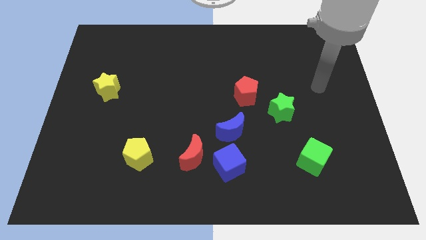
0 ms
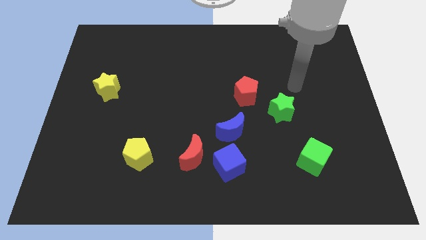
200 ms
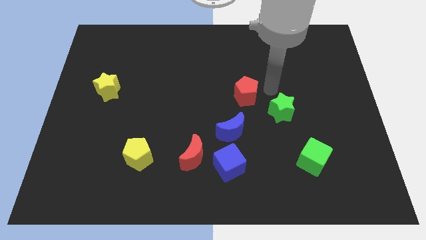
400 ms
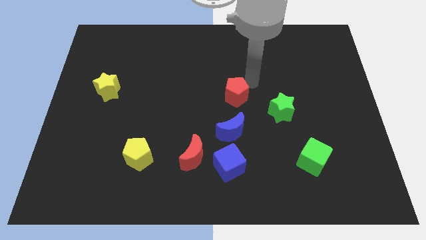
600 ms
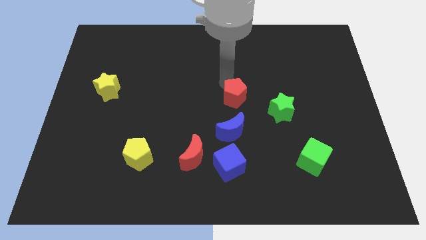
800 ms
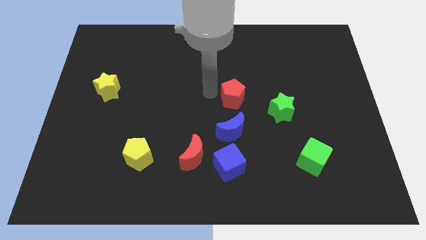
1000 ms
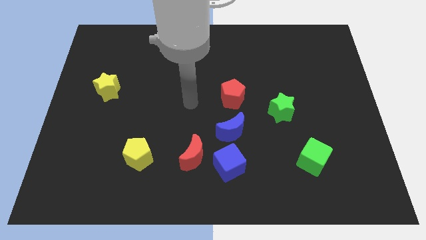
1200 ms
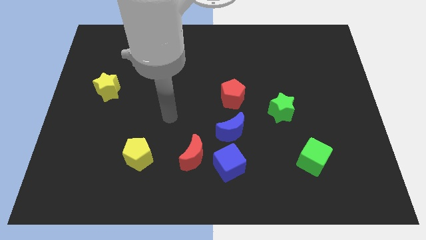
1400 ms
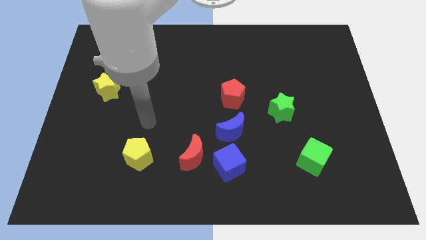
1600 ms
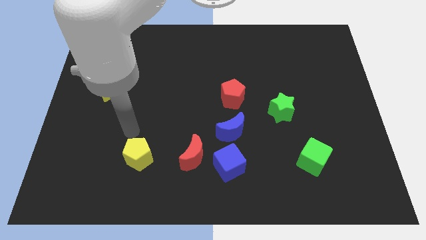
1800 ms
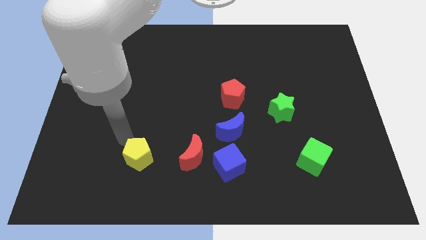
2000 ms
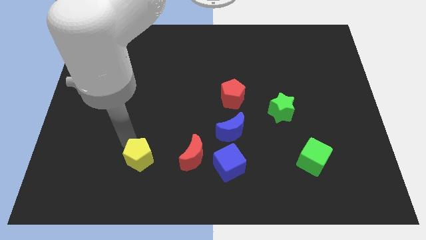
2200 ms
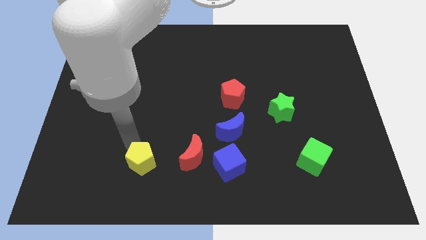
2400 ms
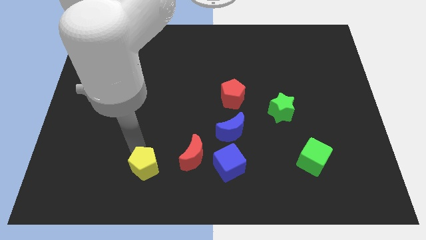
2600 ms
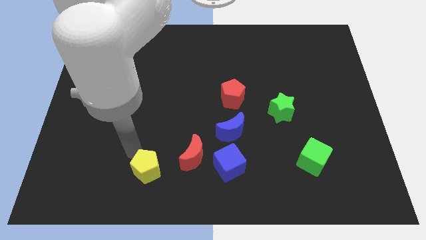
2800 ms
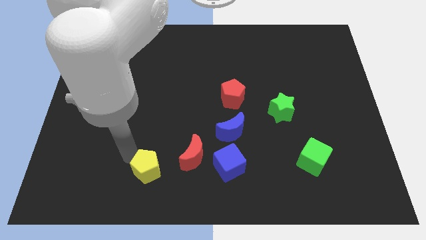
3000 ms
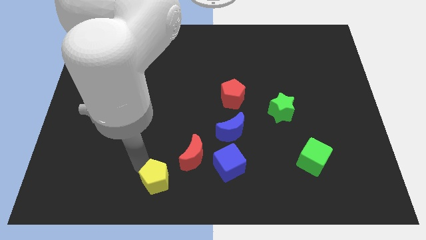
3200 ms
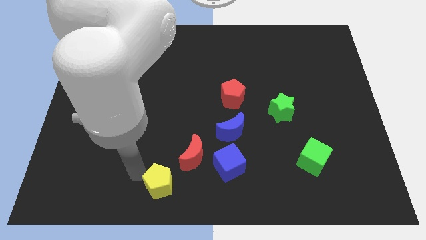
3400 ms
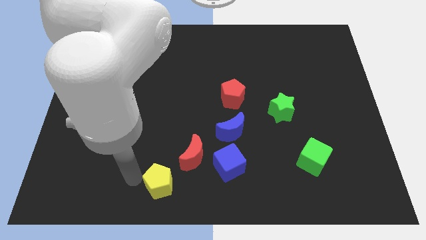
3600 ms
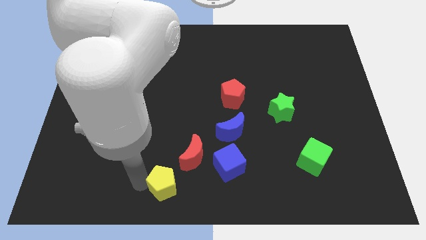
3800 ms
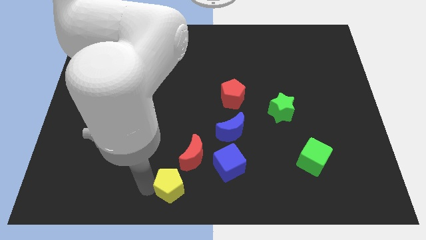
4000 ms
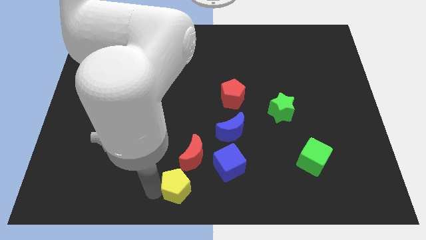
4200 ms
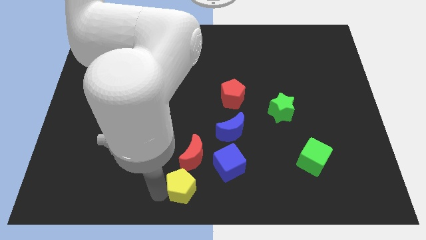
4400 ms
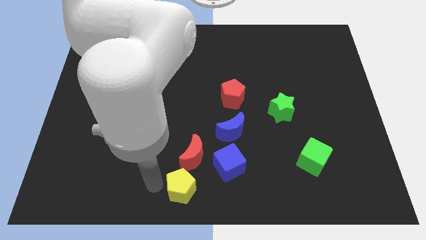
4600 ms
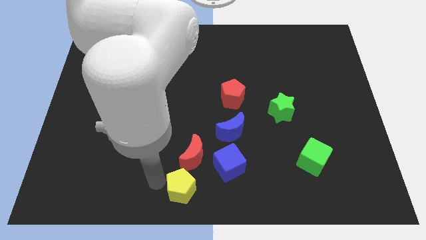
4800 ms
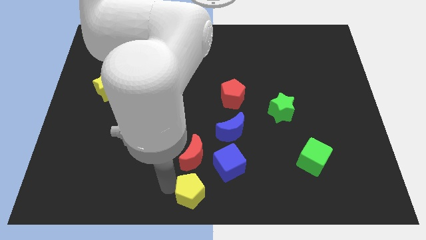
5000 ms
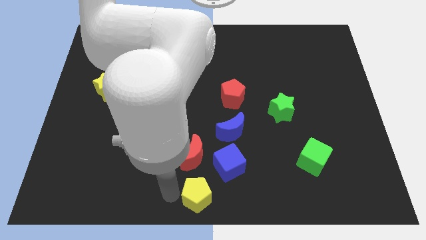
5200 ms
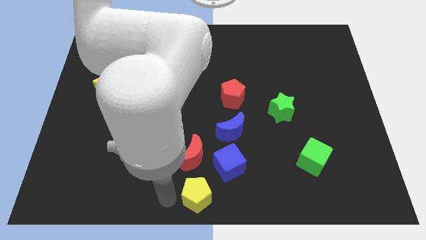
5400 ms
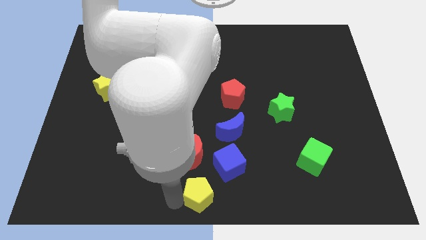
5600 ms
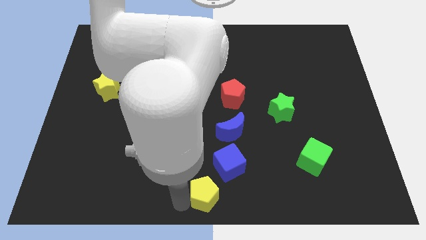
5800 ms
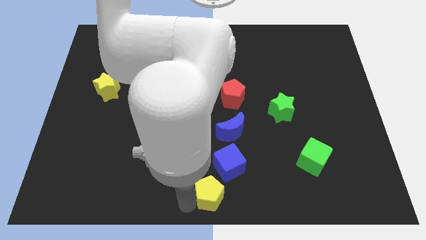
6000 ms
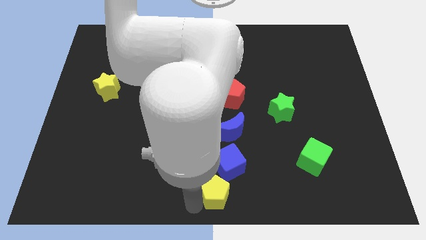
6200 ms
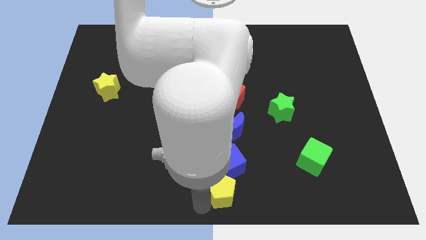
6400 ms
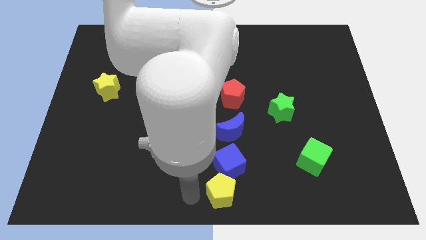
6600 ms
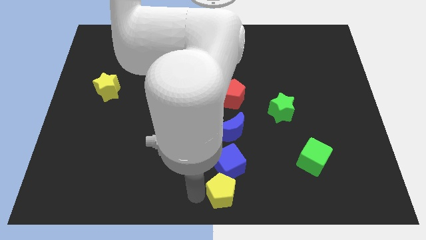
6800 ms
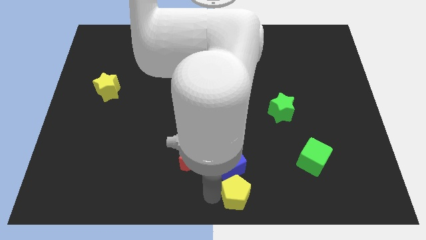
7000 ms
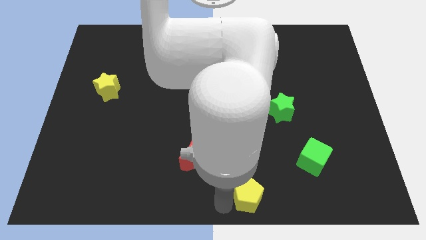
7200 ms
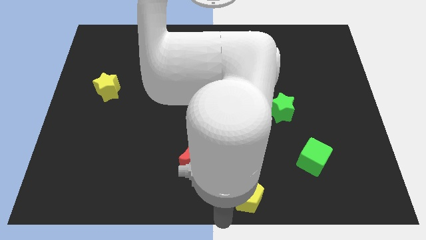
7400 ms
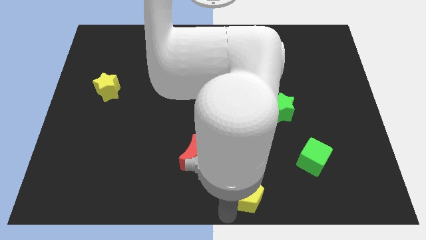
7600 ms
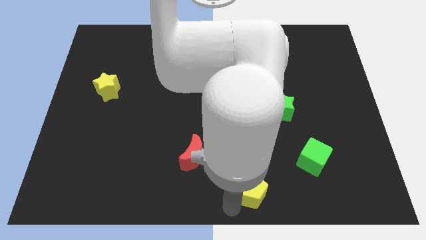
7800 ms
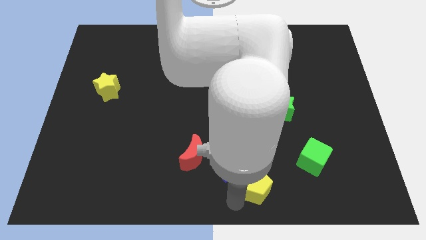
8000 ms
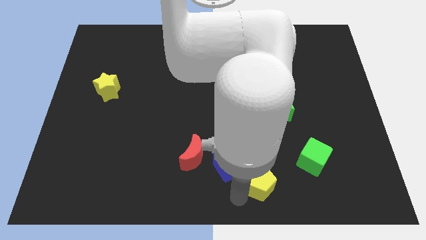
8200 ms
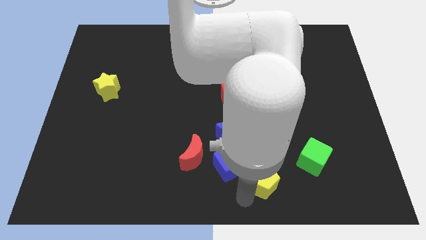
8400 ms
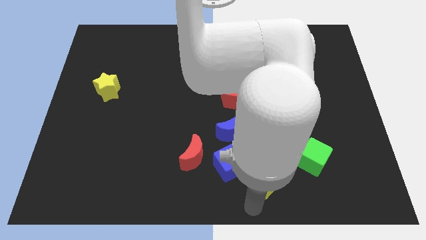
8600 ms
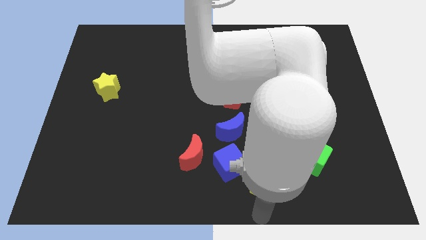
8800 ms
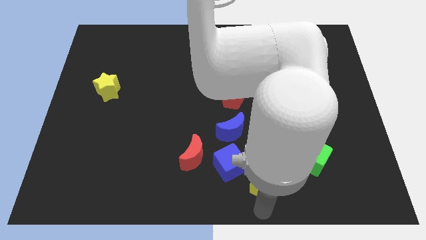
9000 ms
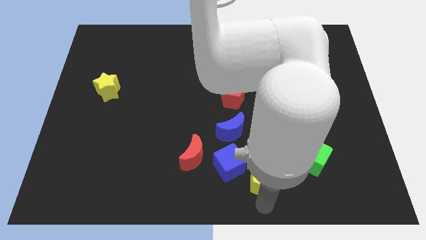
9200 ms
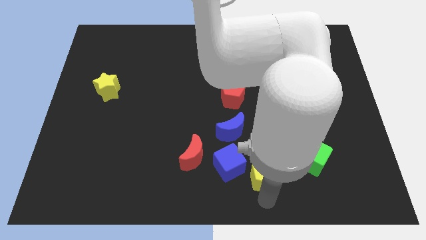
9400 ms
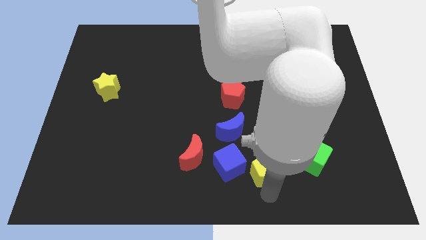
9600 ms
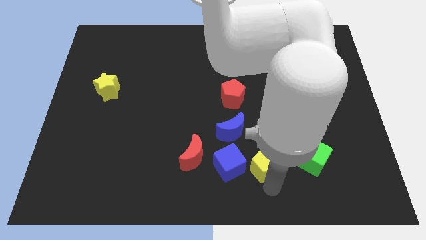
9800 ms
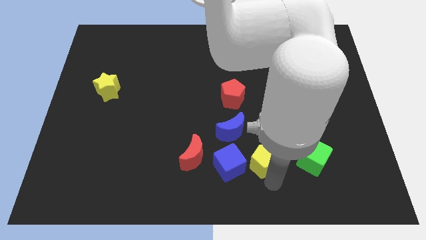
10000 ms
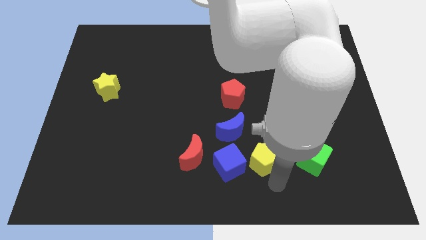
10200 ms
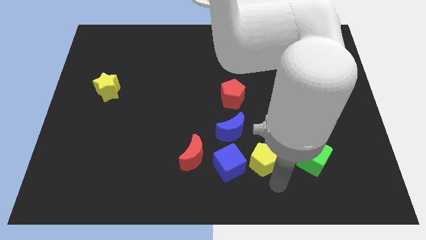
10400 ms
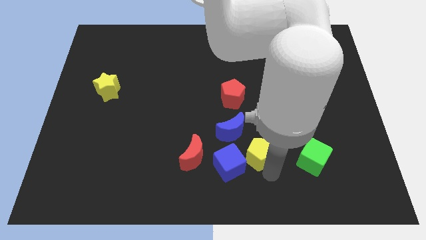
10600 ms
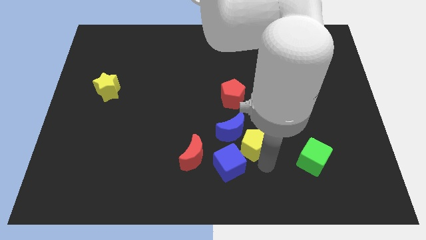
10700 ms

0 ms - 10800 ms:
move the yellow pentagon below the red pentagon

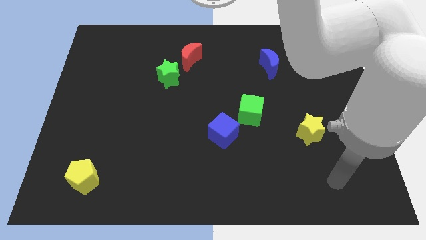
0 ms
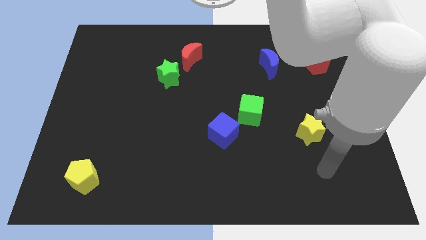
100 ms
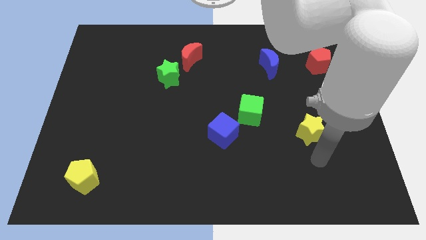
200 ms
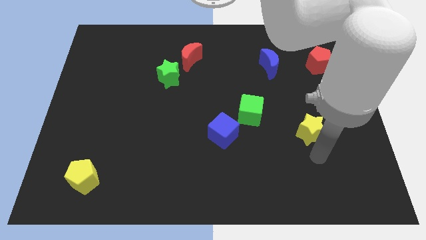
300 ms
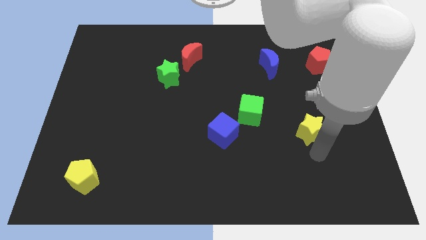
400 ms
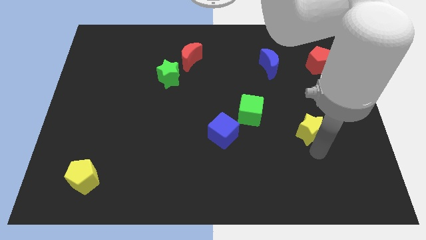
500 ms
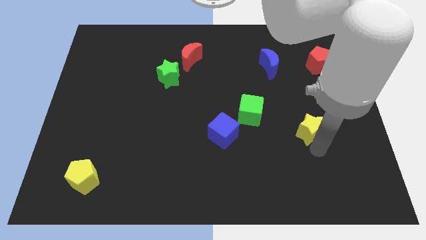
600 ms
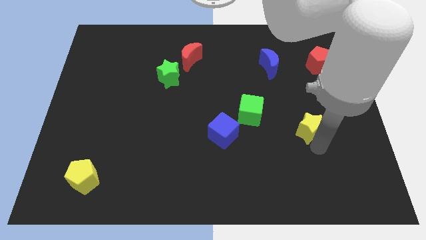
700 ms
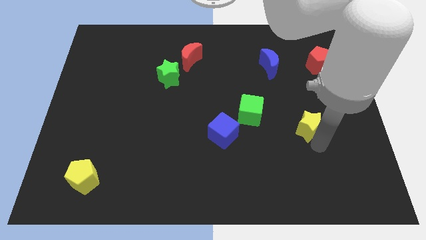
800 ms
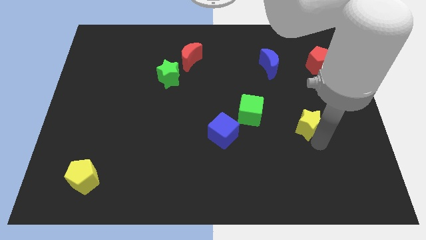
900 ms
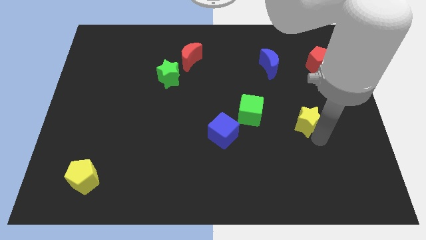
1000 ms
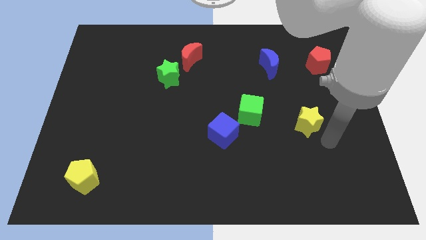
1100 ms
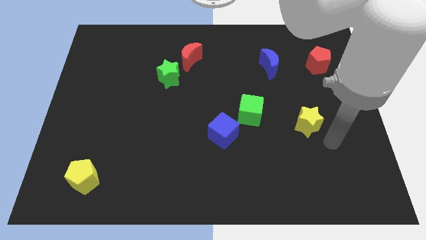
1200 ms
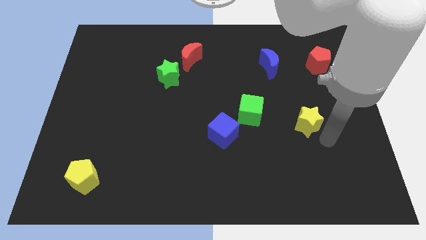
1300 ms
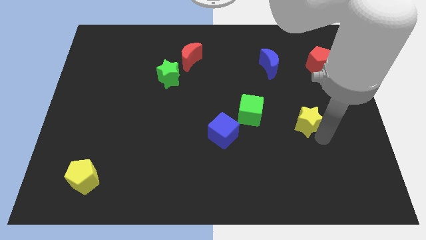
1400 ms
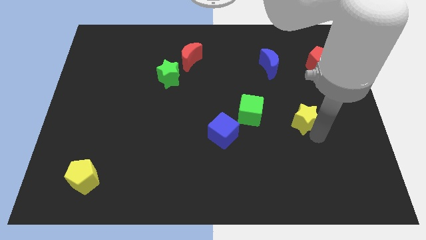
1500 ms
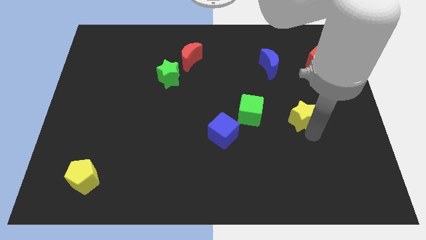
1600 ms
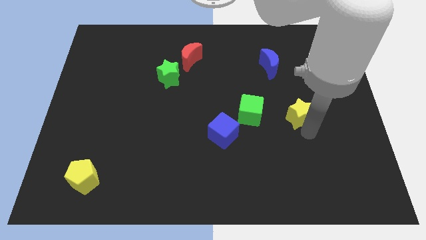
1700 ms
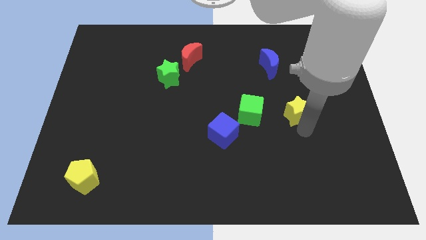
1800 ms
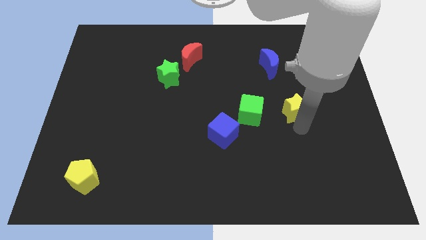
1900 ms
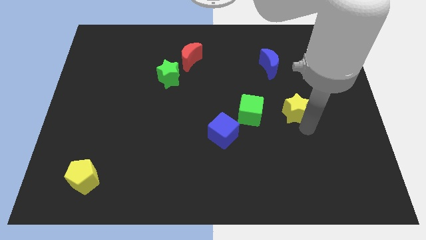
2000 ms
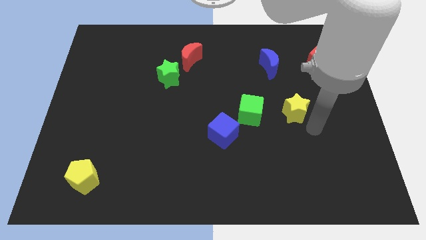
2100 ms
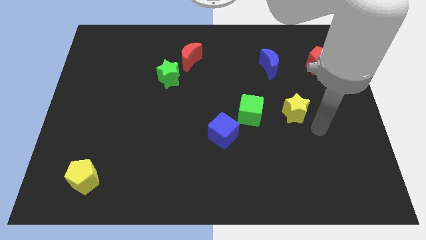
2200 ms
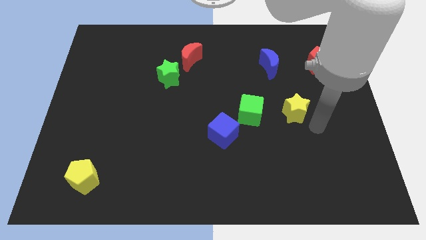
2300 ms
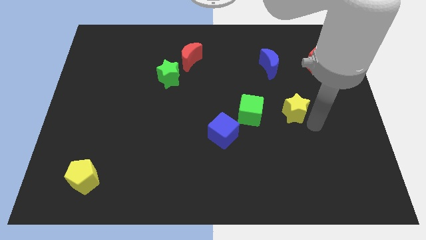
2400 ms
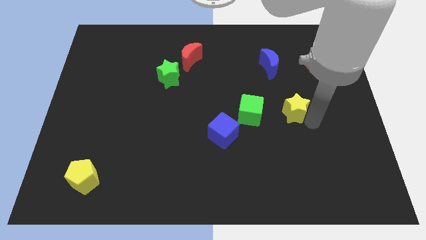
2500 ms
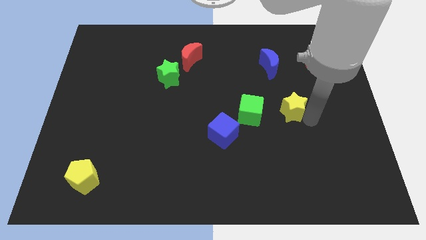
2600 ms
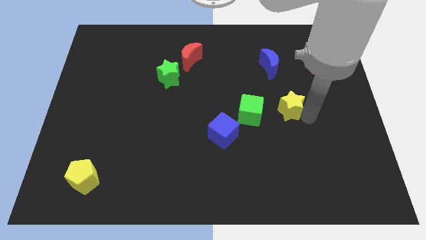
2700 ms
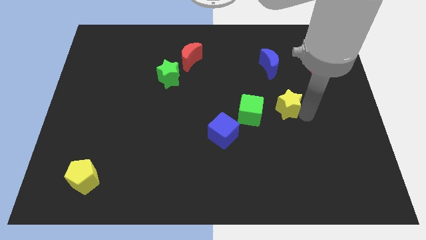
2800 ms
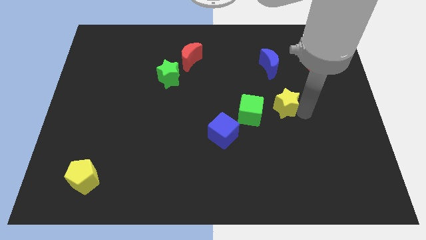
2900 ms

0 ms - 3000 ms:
slide the yellow star to the top right of the green cube
